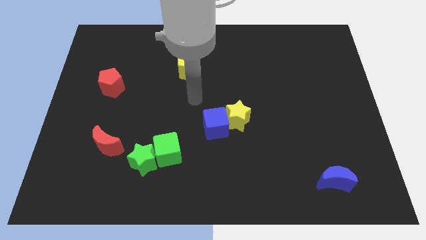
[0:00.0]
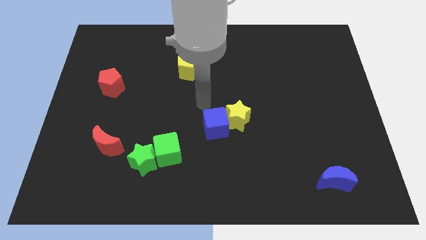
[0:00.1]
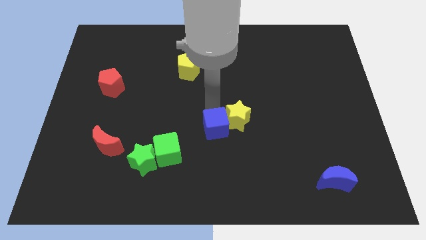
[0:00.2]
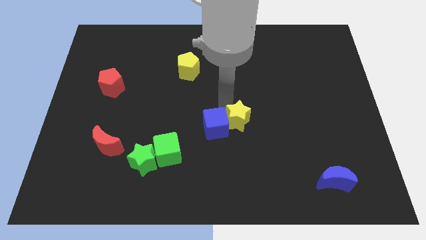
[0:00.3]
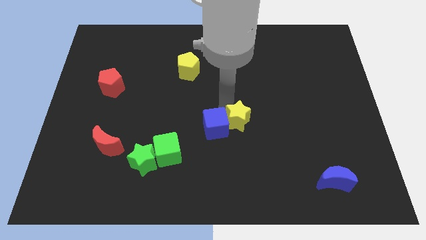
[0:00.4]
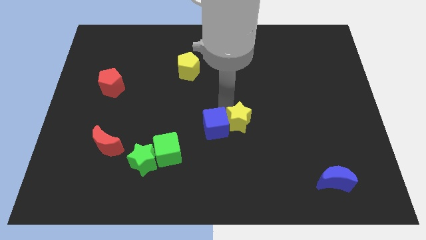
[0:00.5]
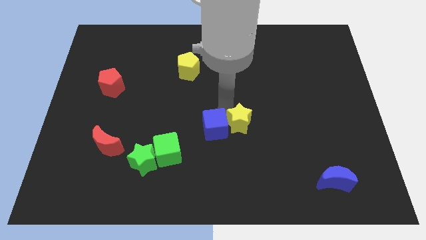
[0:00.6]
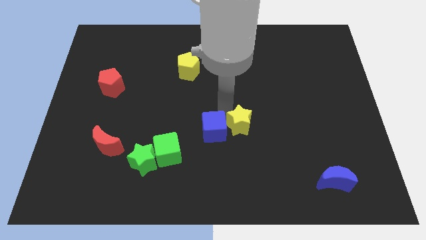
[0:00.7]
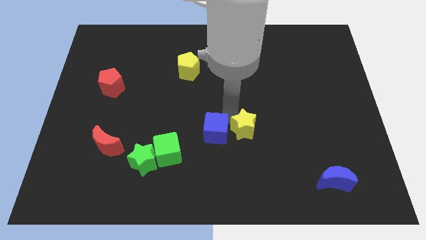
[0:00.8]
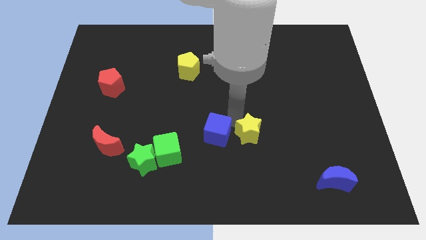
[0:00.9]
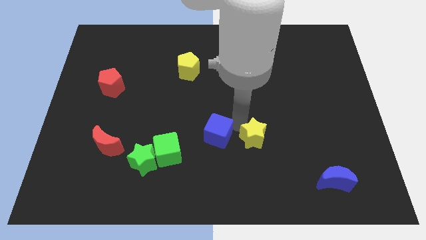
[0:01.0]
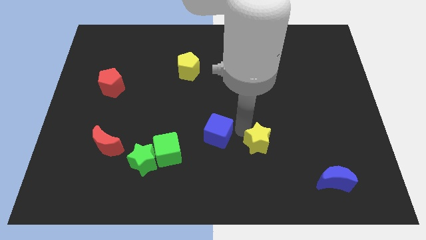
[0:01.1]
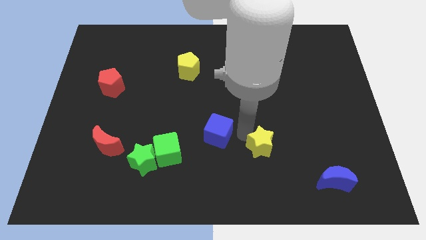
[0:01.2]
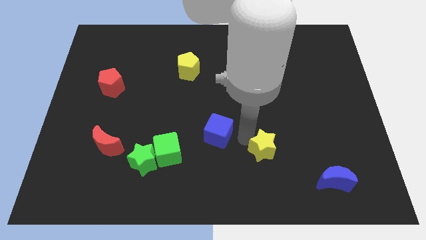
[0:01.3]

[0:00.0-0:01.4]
pull the blue cube apart from the yellow star

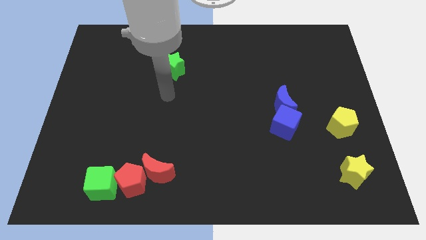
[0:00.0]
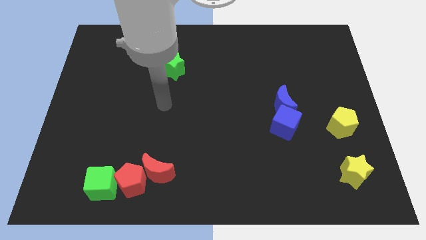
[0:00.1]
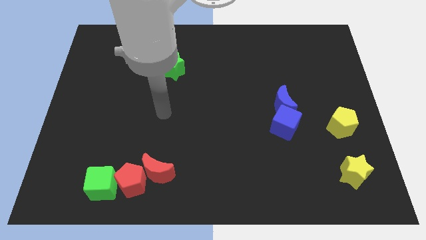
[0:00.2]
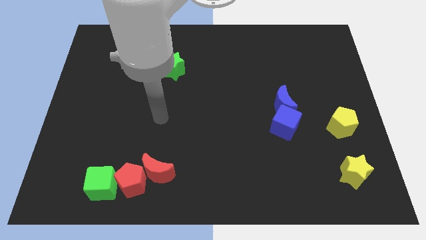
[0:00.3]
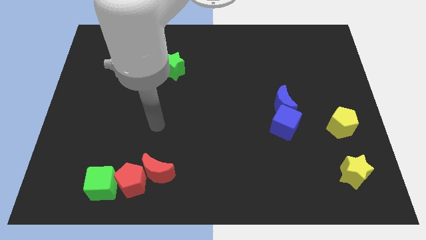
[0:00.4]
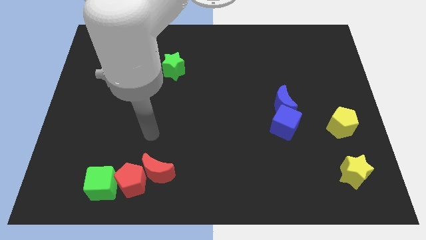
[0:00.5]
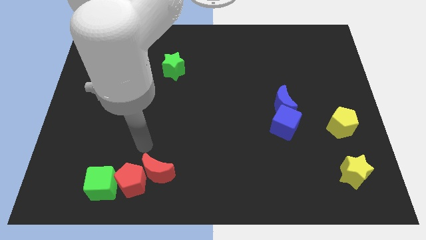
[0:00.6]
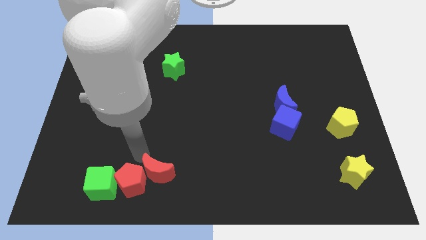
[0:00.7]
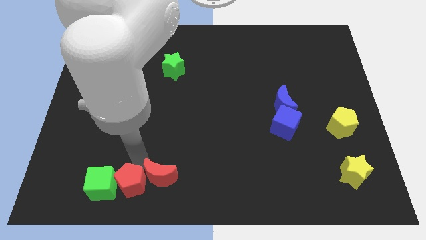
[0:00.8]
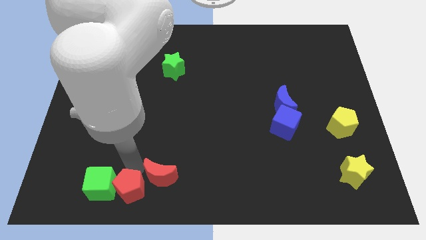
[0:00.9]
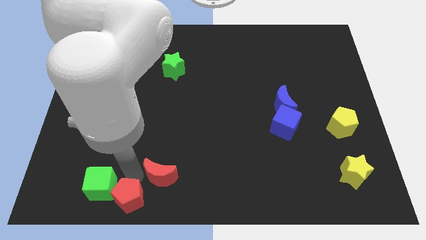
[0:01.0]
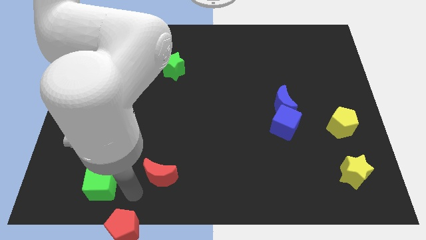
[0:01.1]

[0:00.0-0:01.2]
separate the red moon from the red pentagon

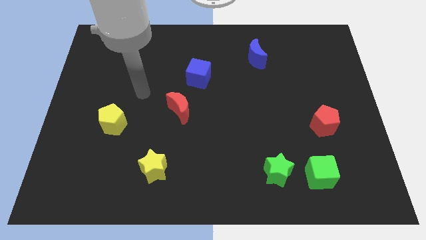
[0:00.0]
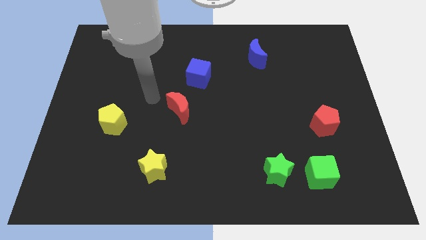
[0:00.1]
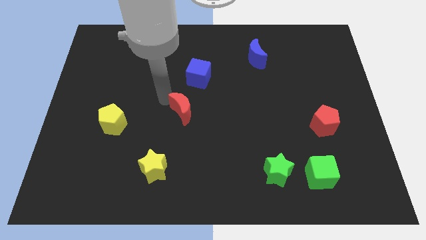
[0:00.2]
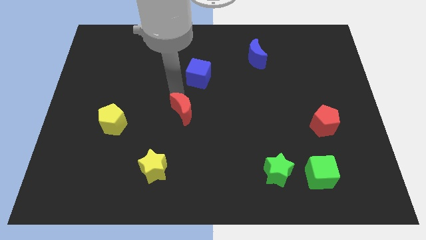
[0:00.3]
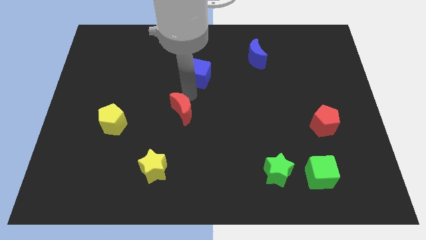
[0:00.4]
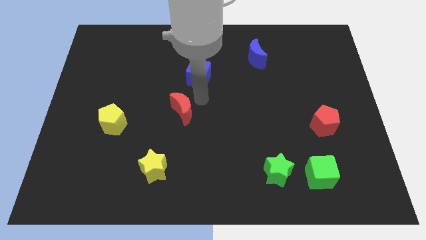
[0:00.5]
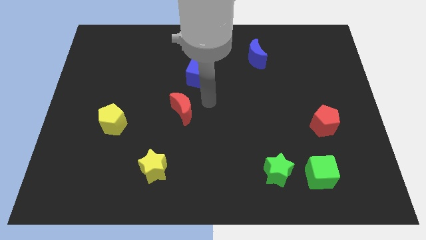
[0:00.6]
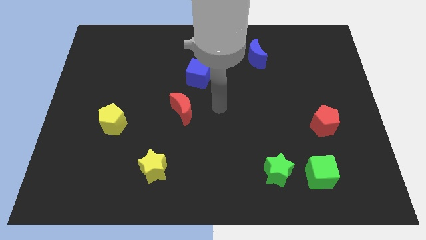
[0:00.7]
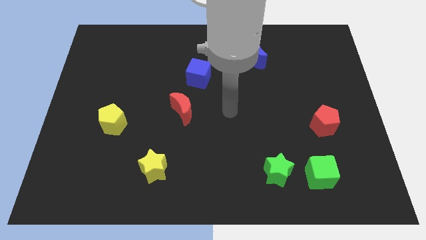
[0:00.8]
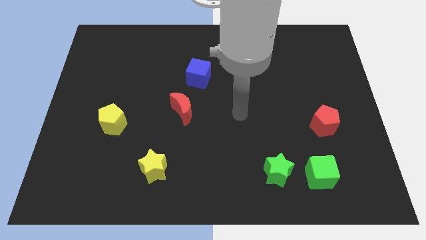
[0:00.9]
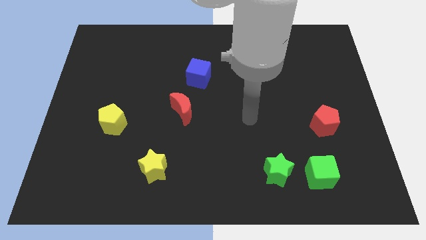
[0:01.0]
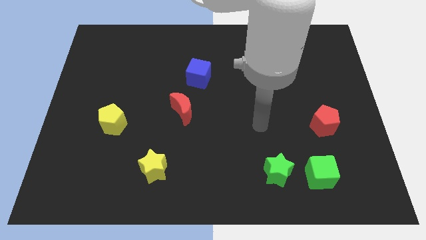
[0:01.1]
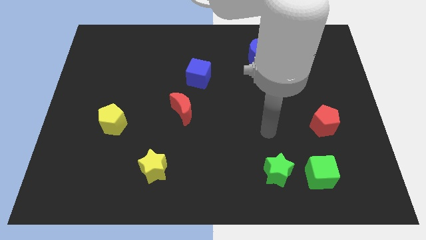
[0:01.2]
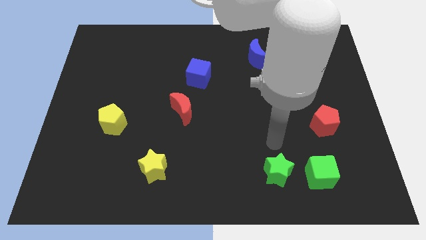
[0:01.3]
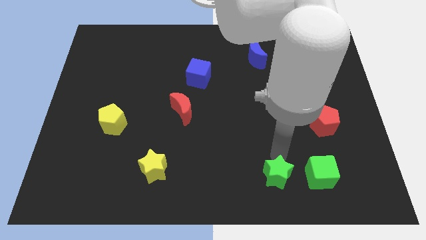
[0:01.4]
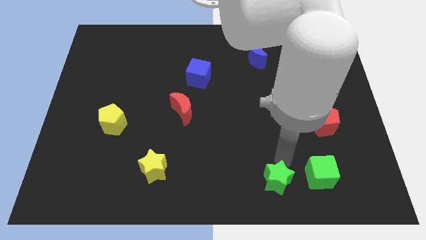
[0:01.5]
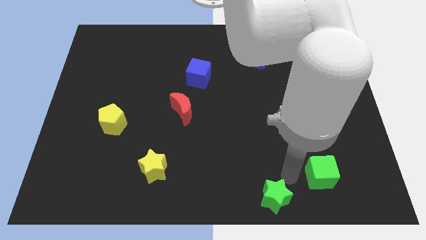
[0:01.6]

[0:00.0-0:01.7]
pull the green cube apart from the green star

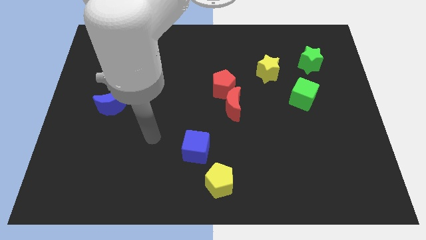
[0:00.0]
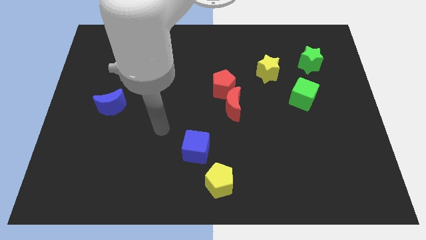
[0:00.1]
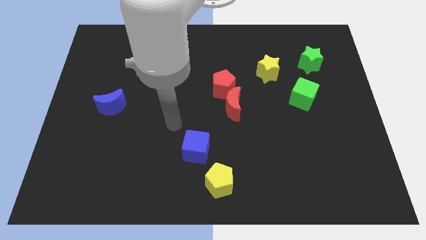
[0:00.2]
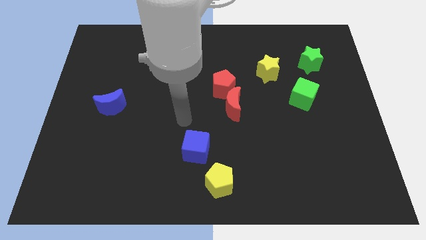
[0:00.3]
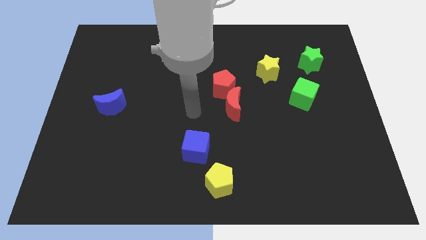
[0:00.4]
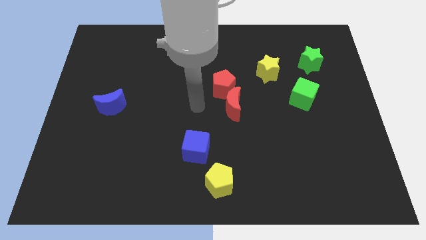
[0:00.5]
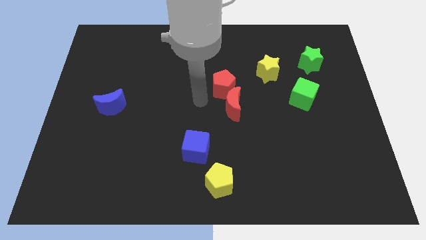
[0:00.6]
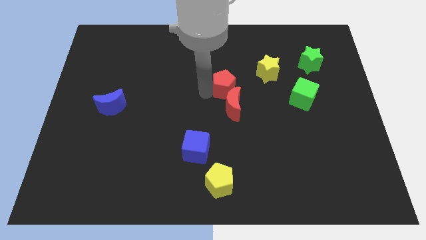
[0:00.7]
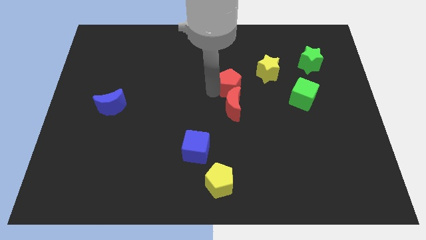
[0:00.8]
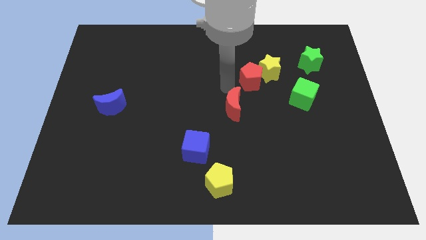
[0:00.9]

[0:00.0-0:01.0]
move the red moon away from the red pentagon

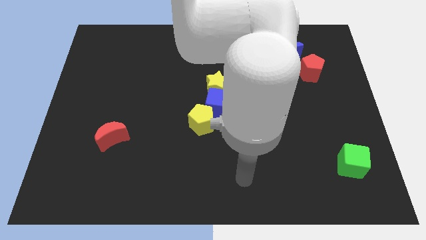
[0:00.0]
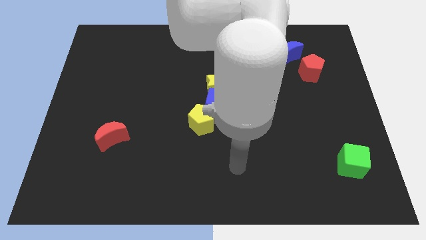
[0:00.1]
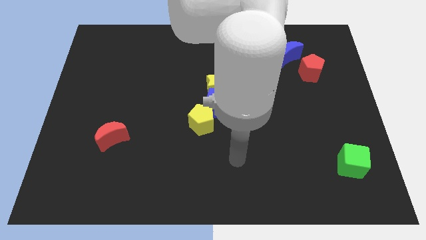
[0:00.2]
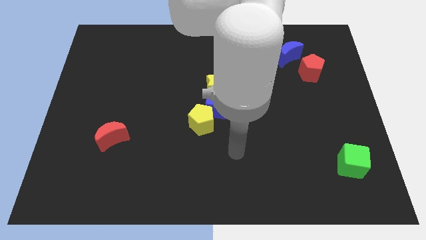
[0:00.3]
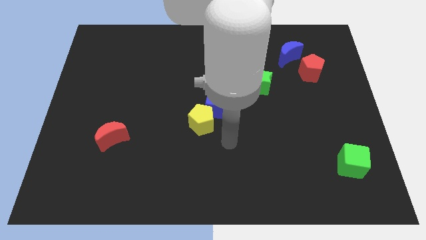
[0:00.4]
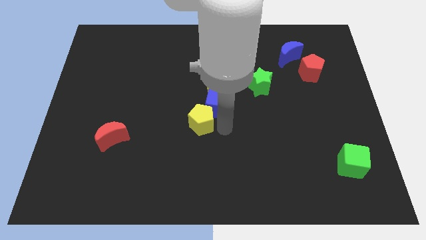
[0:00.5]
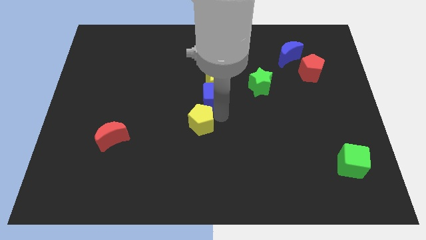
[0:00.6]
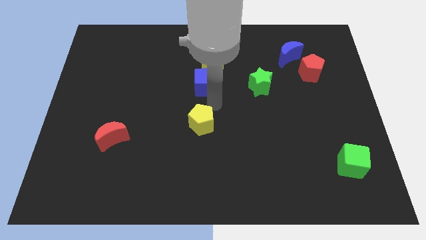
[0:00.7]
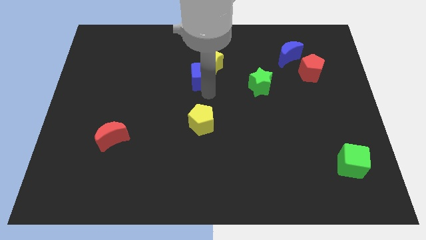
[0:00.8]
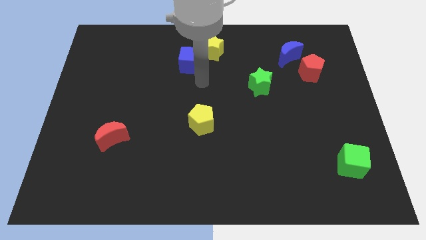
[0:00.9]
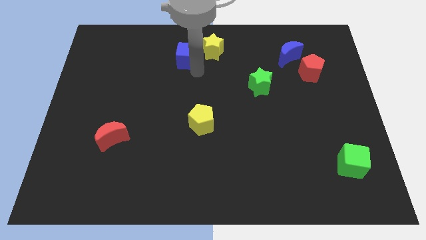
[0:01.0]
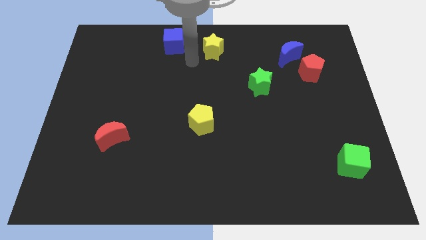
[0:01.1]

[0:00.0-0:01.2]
separate the yellow star from the blue cube

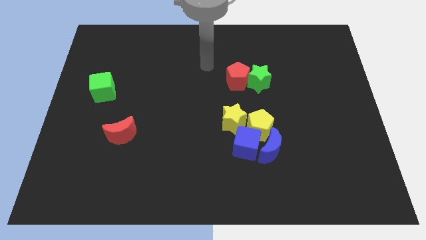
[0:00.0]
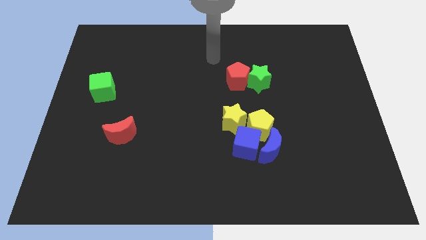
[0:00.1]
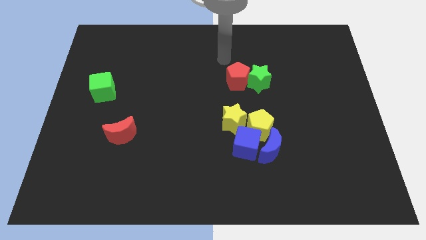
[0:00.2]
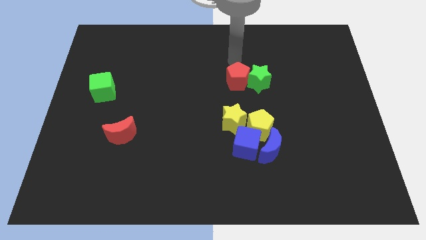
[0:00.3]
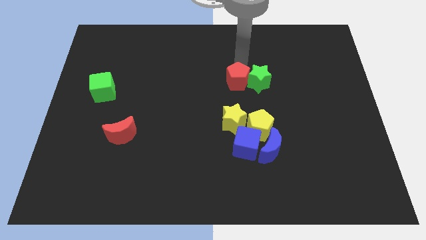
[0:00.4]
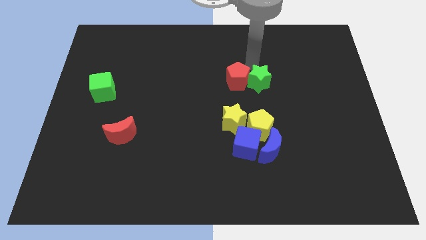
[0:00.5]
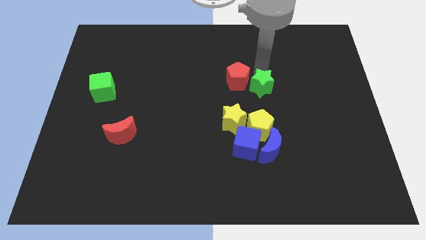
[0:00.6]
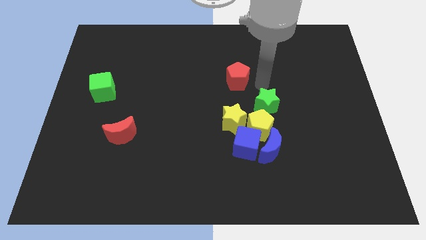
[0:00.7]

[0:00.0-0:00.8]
move the red pentagon away from the green star

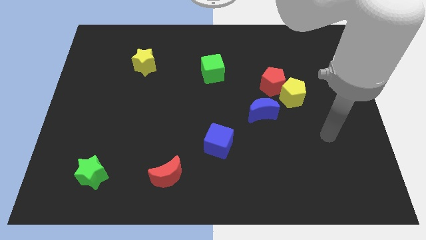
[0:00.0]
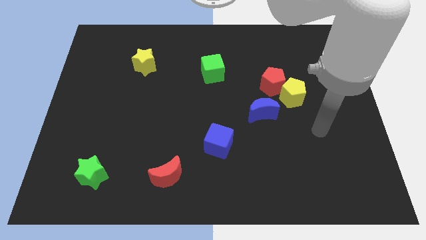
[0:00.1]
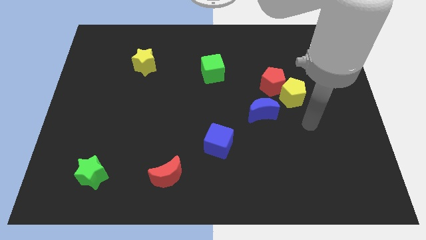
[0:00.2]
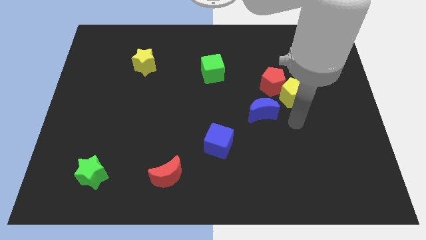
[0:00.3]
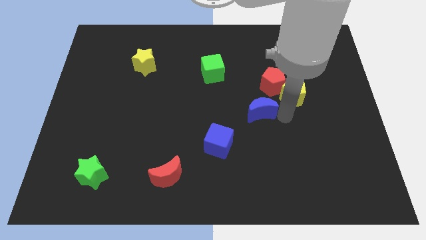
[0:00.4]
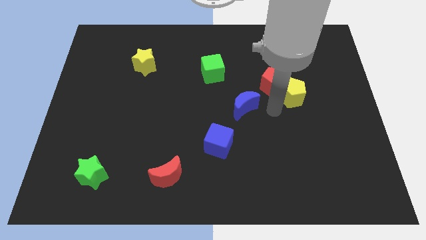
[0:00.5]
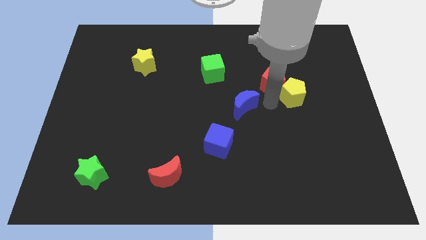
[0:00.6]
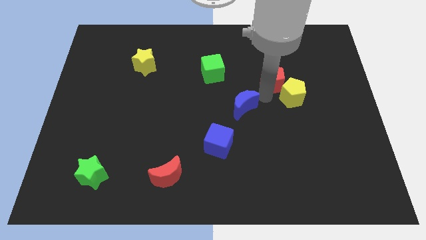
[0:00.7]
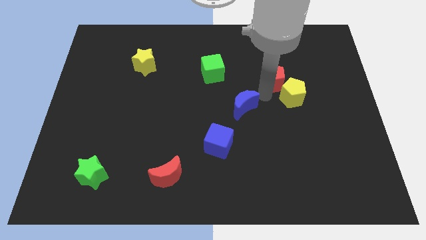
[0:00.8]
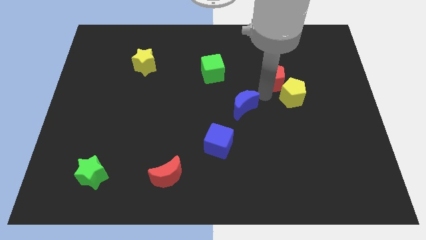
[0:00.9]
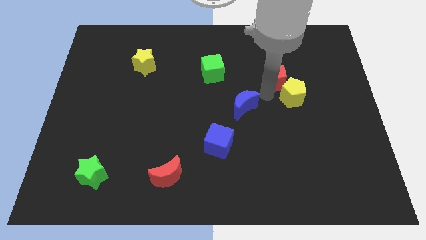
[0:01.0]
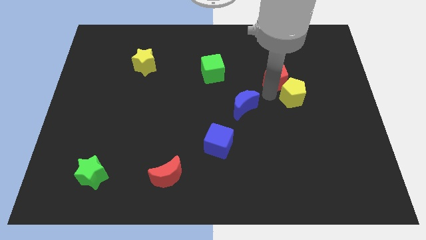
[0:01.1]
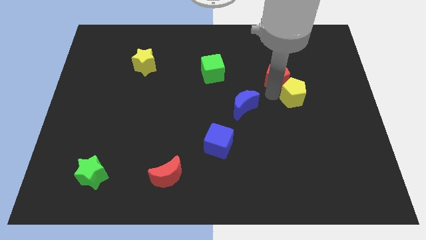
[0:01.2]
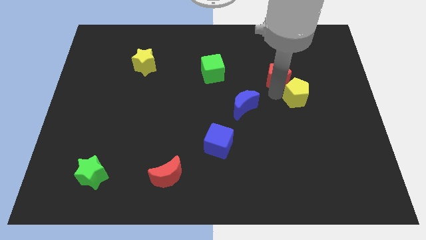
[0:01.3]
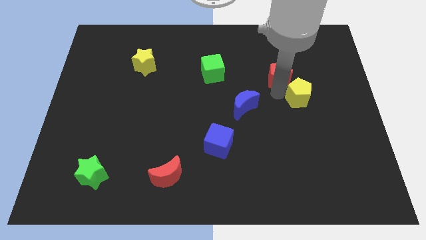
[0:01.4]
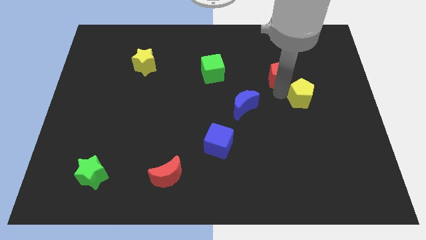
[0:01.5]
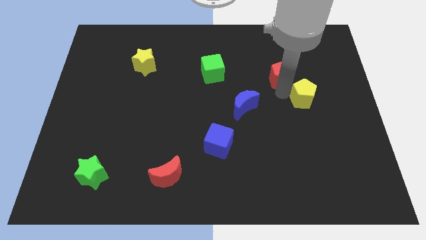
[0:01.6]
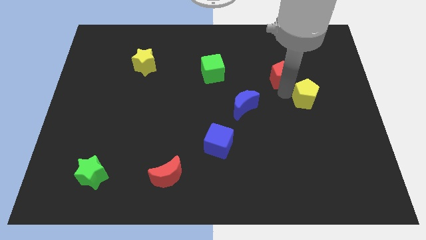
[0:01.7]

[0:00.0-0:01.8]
move the yellow pentagon away from the red pentagon and blue moon

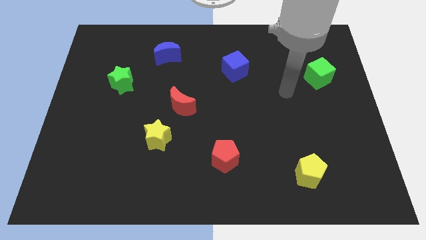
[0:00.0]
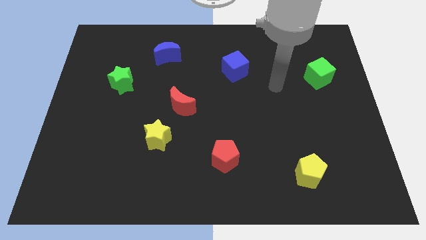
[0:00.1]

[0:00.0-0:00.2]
separate the red moon from the yellow star
